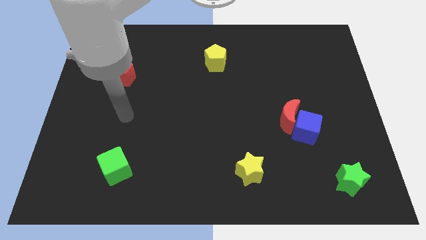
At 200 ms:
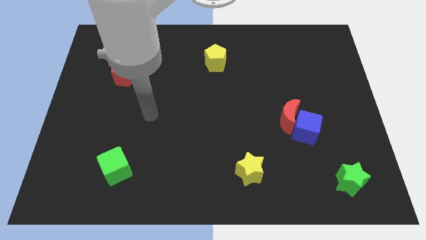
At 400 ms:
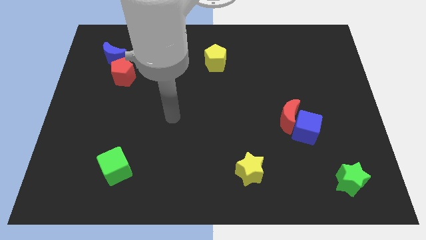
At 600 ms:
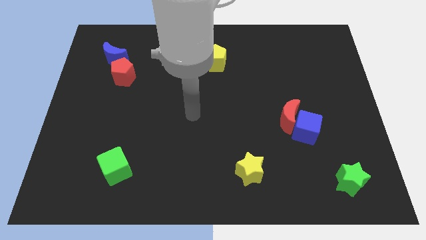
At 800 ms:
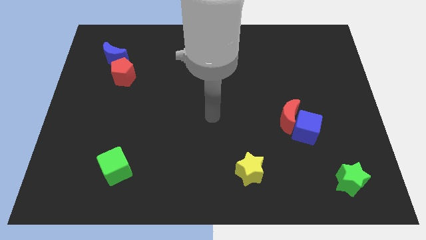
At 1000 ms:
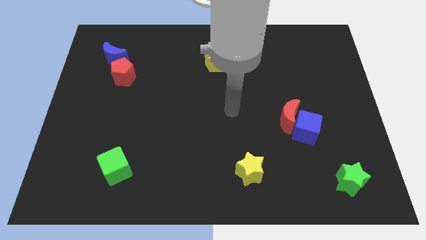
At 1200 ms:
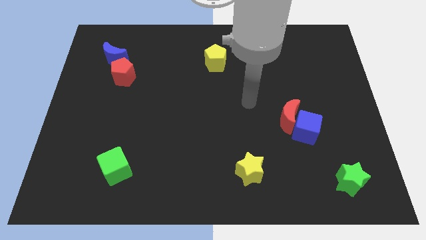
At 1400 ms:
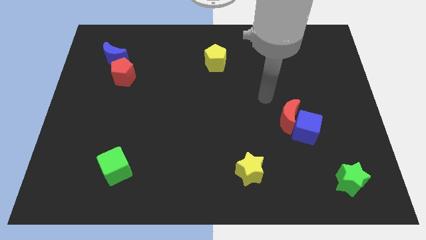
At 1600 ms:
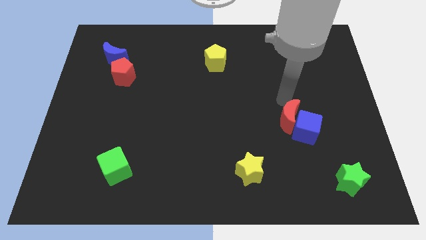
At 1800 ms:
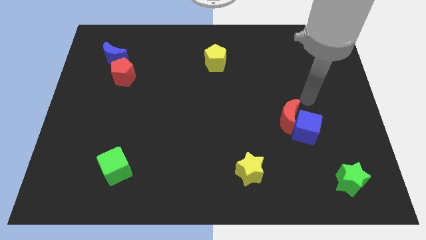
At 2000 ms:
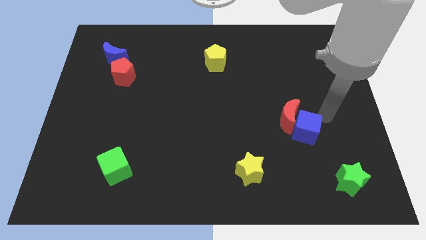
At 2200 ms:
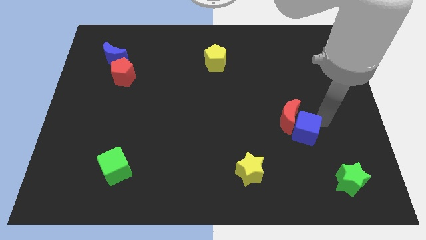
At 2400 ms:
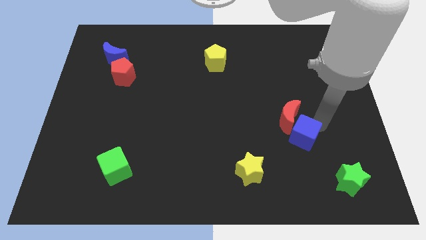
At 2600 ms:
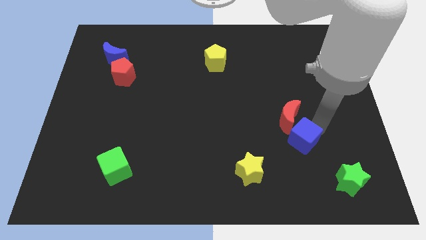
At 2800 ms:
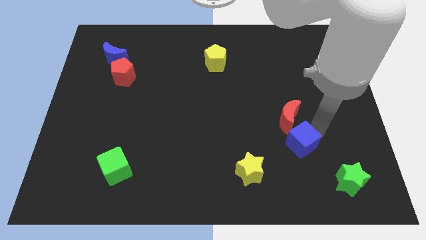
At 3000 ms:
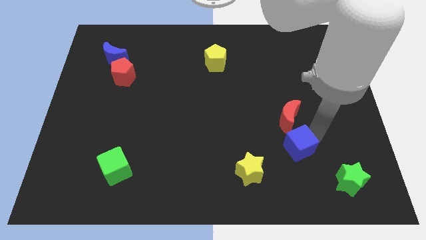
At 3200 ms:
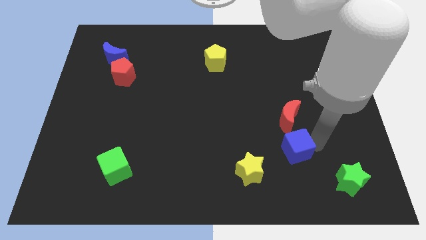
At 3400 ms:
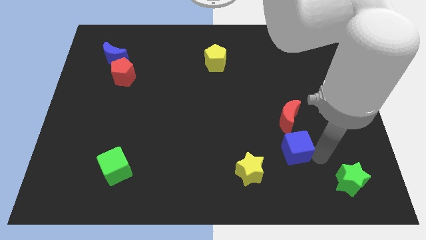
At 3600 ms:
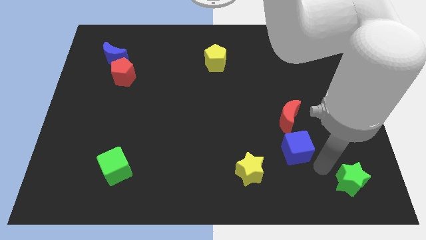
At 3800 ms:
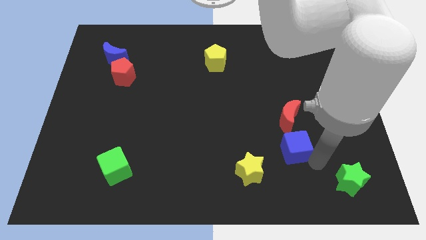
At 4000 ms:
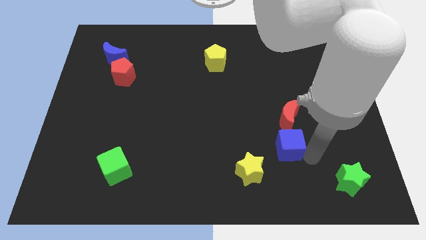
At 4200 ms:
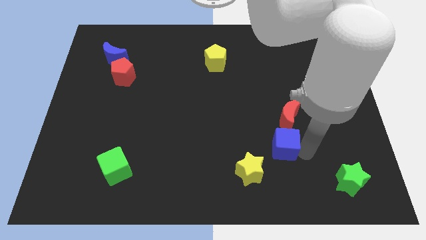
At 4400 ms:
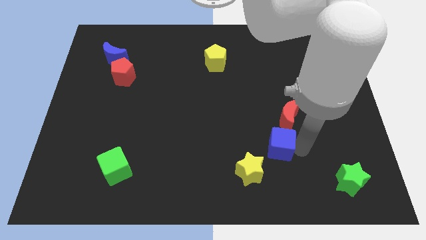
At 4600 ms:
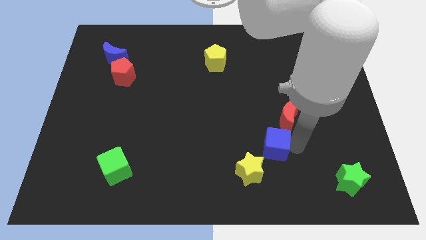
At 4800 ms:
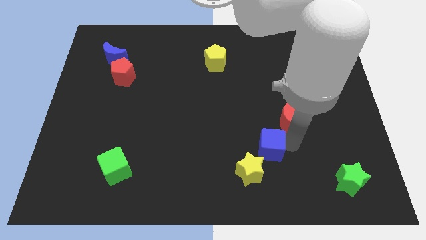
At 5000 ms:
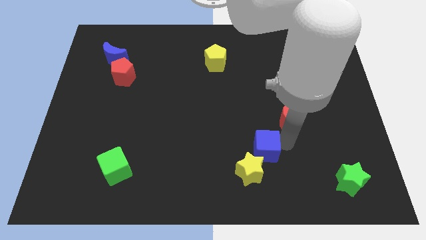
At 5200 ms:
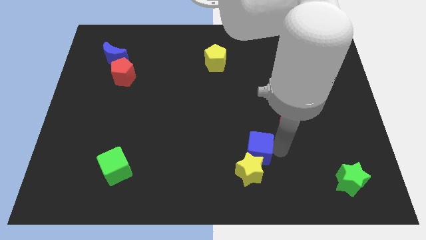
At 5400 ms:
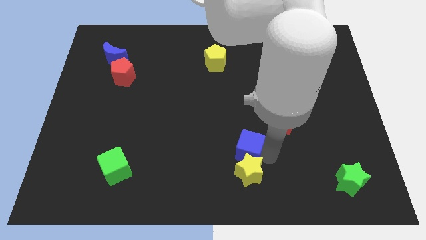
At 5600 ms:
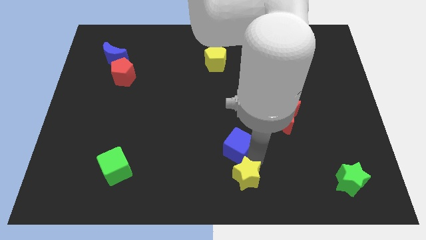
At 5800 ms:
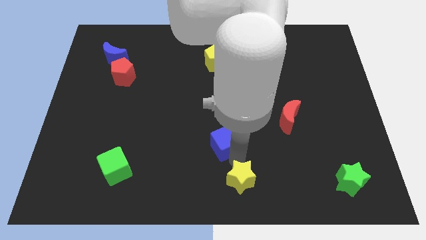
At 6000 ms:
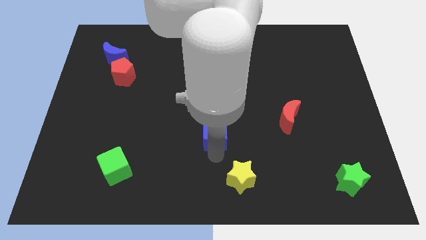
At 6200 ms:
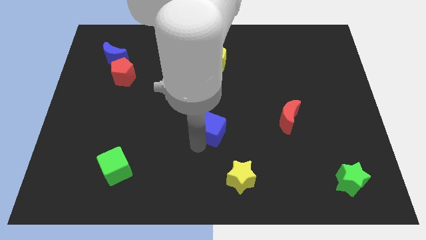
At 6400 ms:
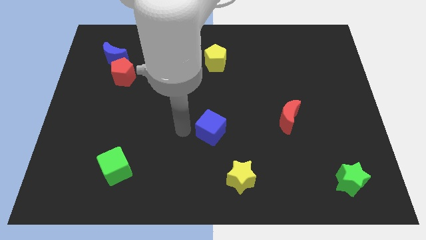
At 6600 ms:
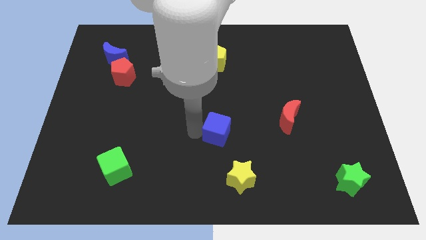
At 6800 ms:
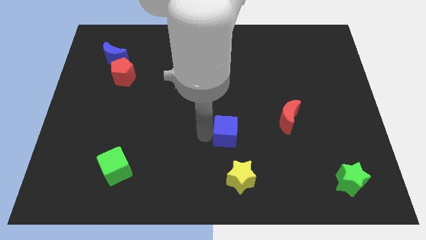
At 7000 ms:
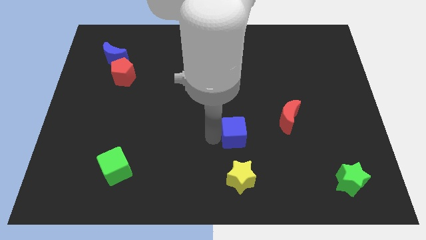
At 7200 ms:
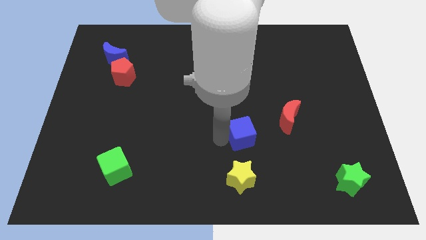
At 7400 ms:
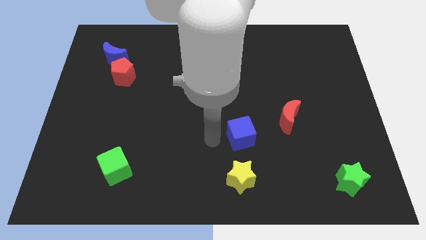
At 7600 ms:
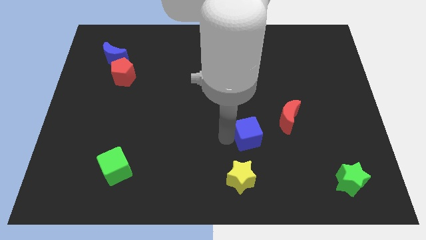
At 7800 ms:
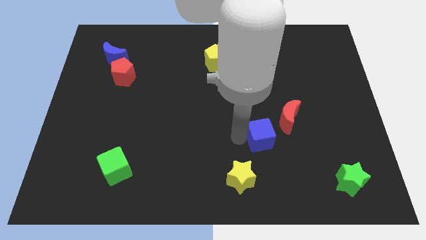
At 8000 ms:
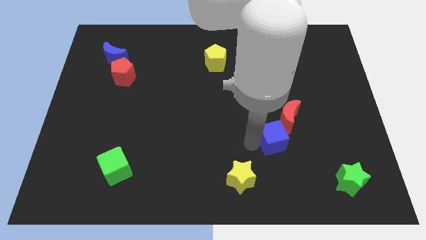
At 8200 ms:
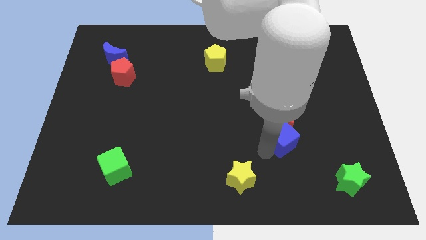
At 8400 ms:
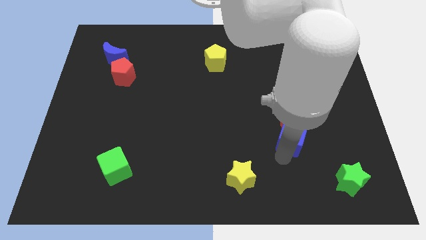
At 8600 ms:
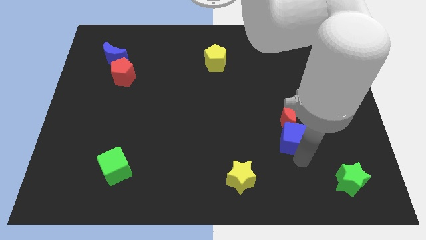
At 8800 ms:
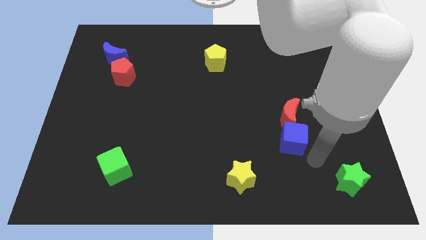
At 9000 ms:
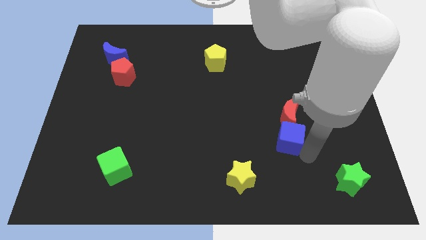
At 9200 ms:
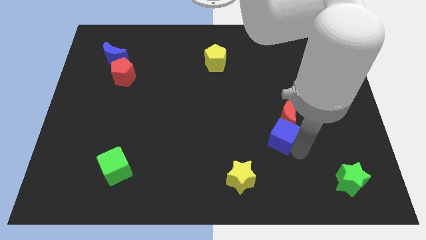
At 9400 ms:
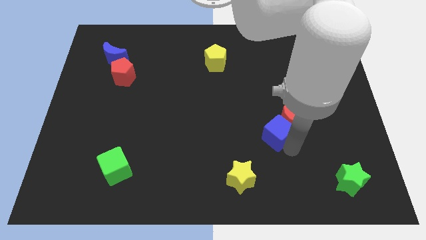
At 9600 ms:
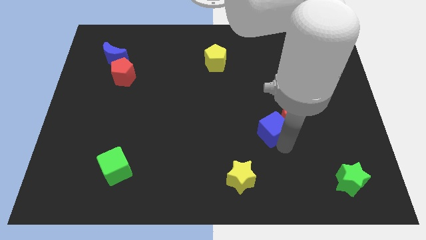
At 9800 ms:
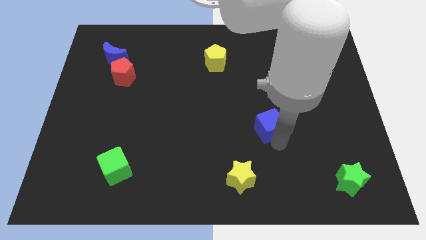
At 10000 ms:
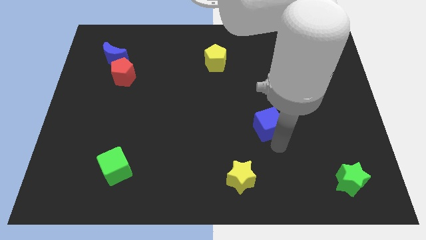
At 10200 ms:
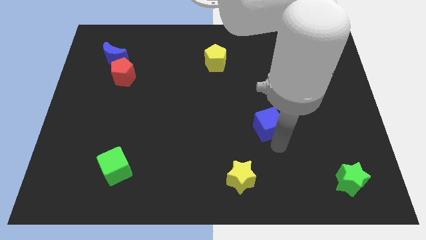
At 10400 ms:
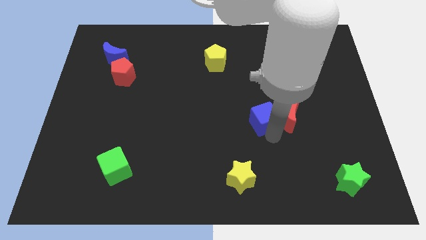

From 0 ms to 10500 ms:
push the blue cube up and to the left diagonally a little

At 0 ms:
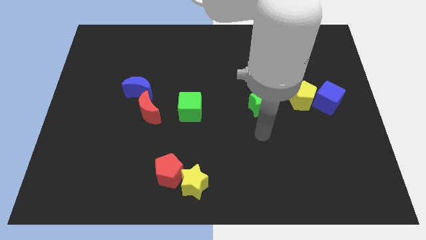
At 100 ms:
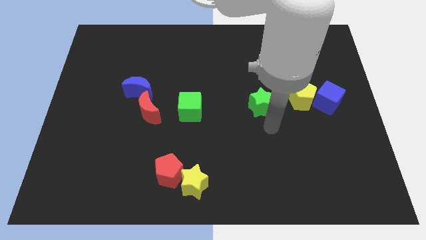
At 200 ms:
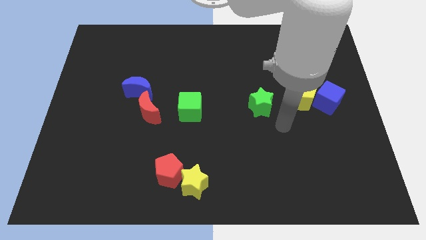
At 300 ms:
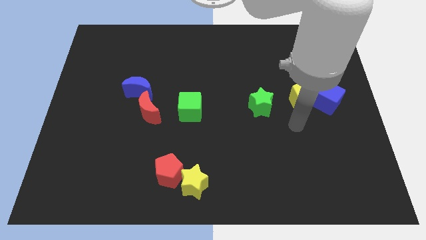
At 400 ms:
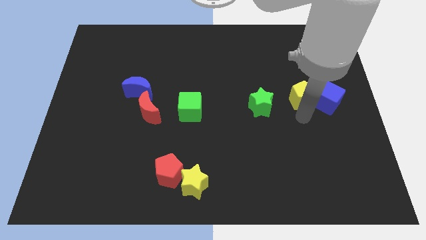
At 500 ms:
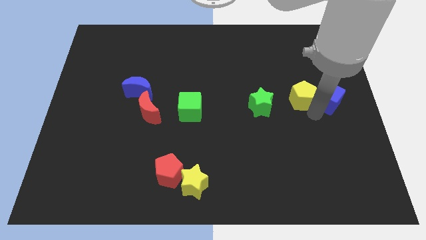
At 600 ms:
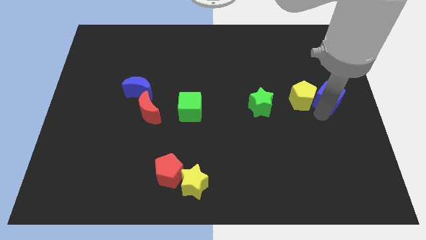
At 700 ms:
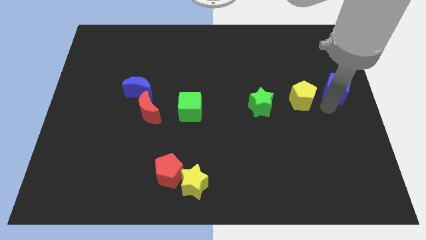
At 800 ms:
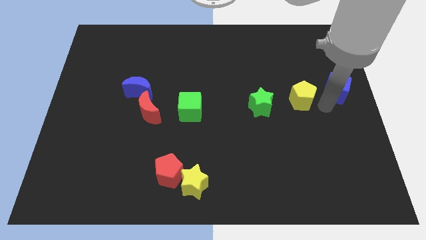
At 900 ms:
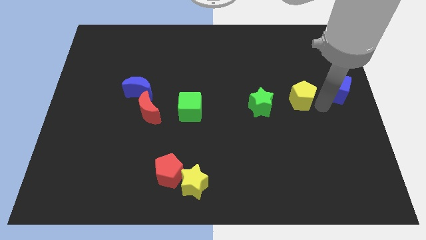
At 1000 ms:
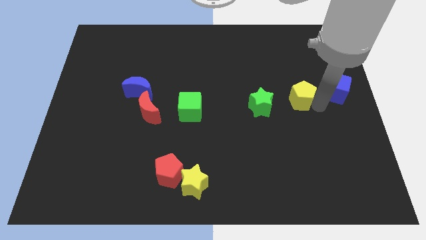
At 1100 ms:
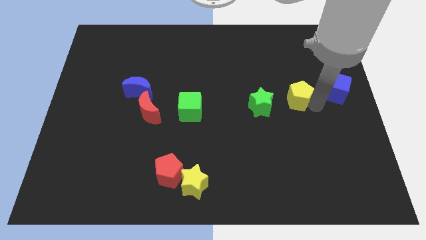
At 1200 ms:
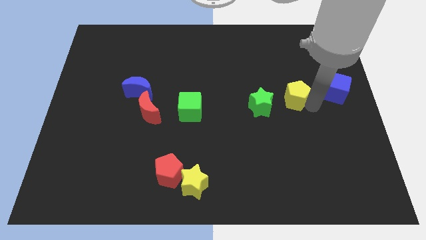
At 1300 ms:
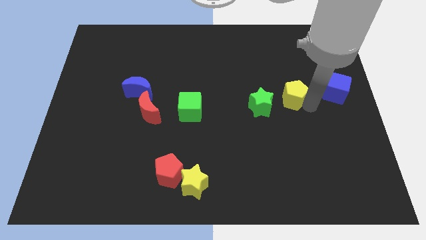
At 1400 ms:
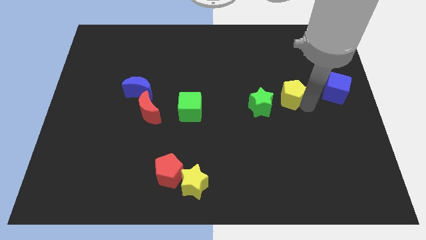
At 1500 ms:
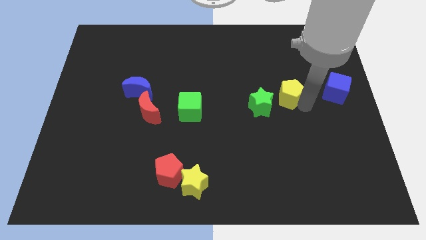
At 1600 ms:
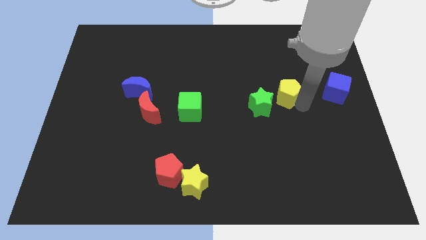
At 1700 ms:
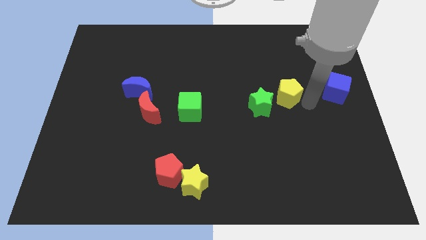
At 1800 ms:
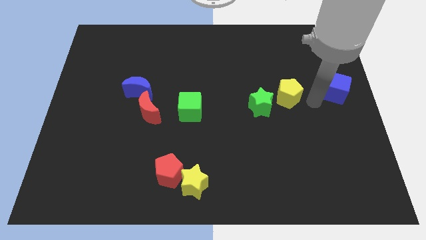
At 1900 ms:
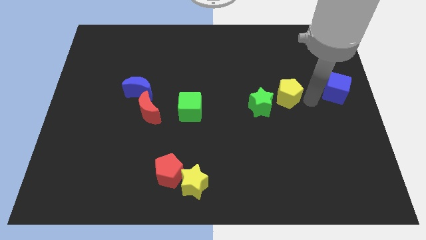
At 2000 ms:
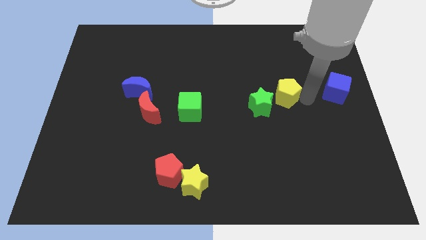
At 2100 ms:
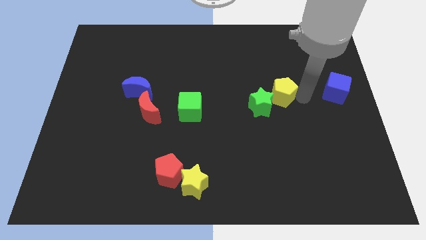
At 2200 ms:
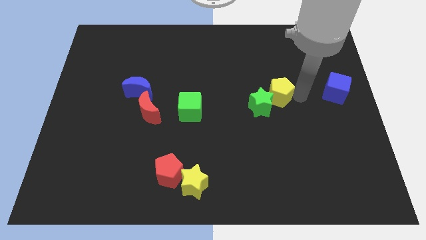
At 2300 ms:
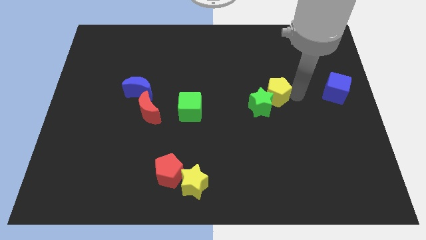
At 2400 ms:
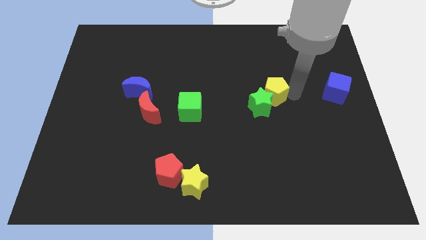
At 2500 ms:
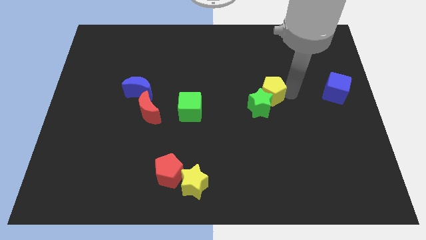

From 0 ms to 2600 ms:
push the yellow pentagon somewhat to the left

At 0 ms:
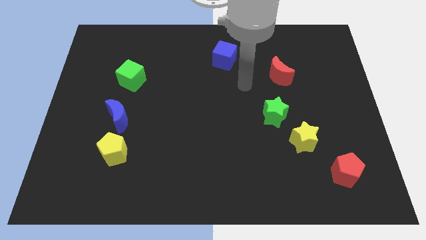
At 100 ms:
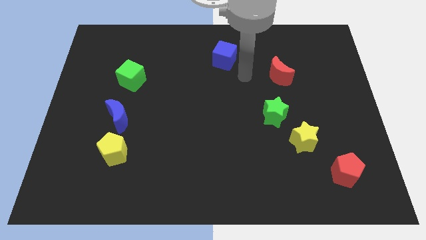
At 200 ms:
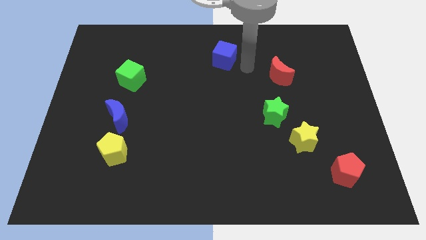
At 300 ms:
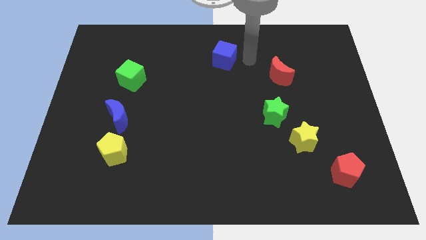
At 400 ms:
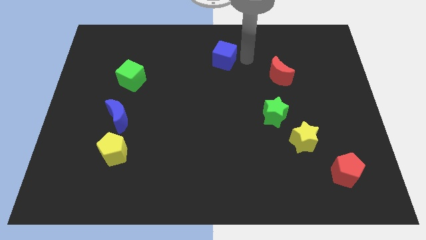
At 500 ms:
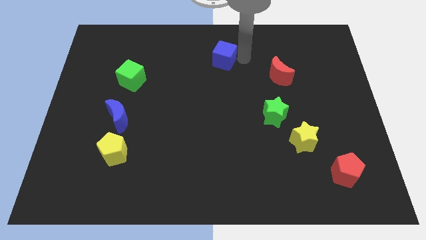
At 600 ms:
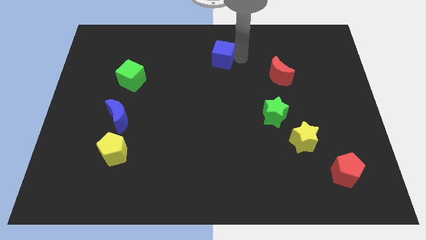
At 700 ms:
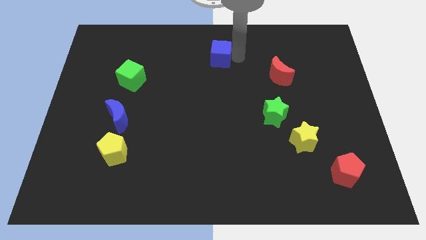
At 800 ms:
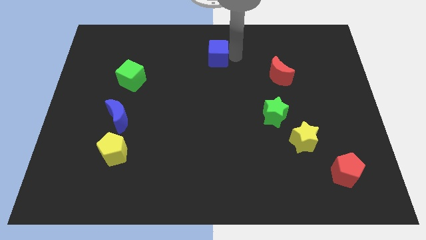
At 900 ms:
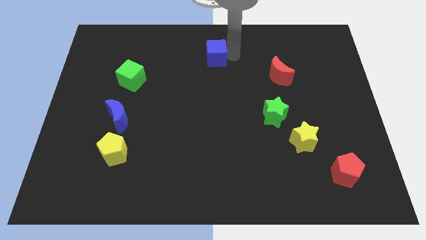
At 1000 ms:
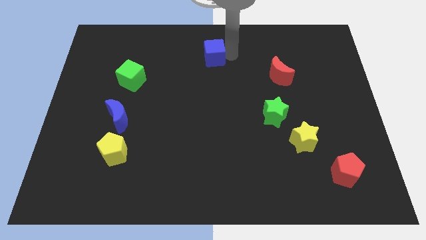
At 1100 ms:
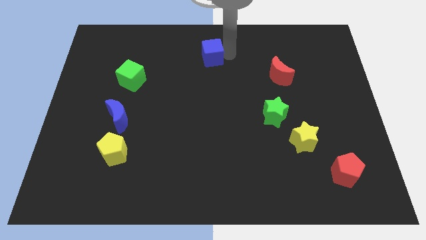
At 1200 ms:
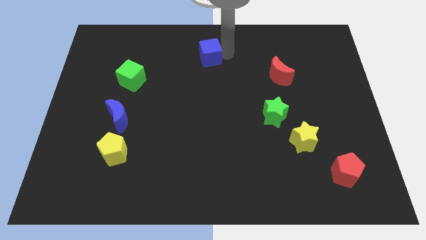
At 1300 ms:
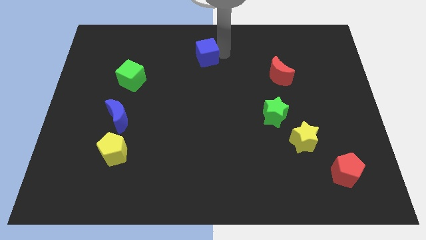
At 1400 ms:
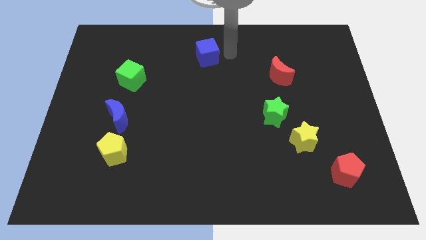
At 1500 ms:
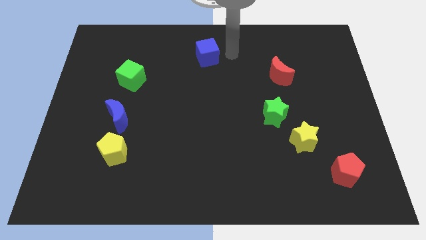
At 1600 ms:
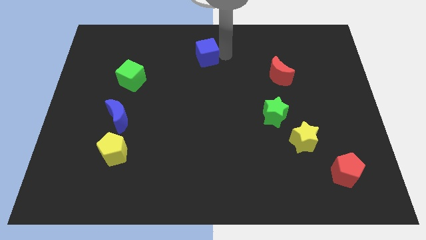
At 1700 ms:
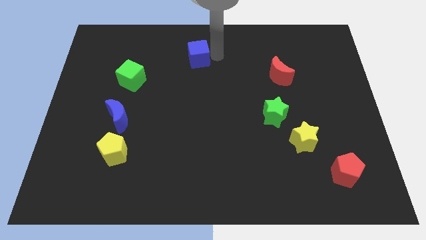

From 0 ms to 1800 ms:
slightly move the blue cube left
